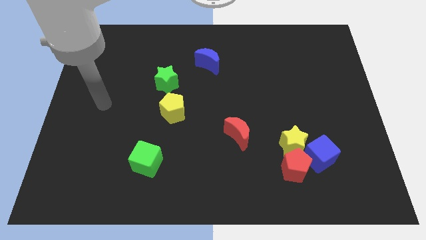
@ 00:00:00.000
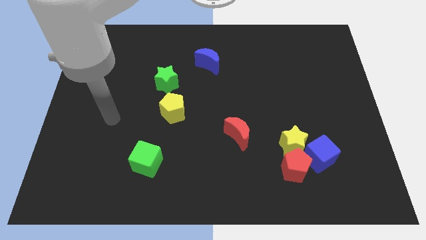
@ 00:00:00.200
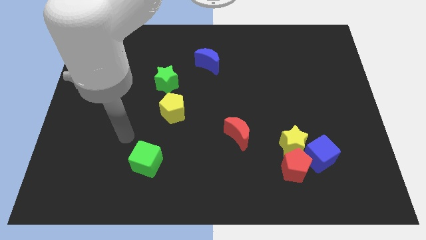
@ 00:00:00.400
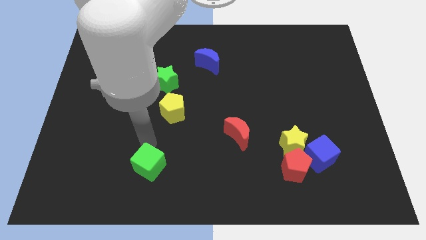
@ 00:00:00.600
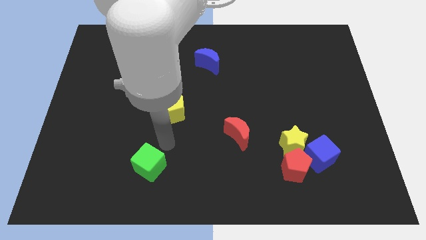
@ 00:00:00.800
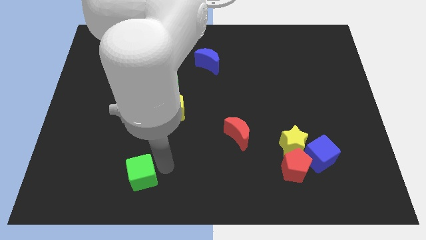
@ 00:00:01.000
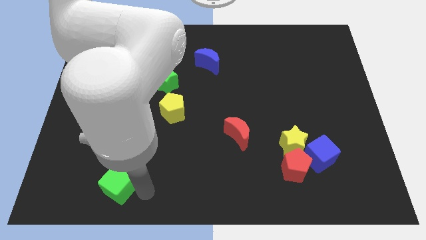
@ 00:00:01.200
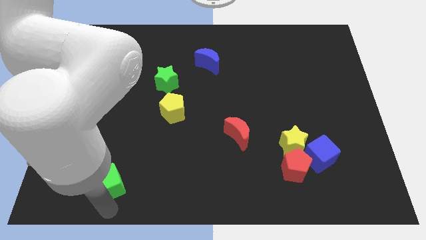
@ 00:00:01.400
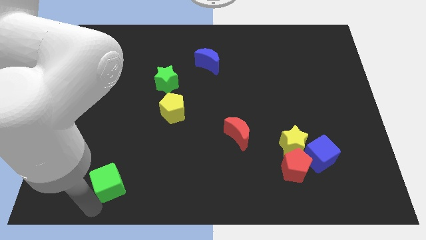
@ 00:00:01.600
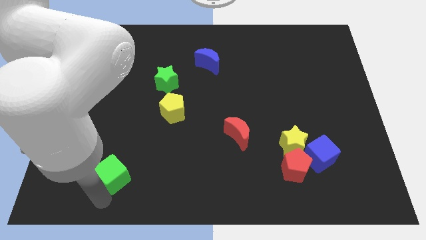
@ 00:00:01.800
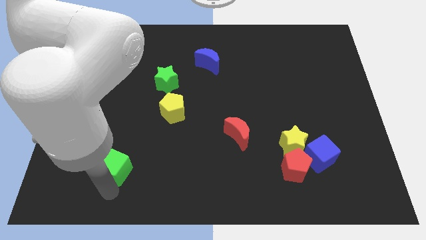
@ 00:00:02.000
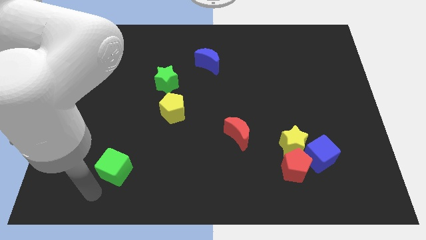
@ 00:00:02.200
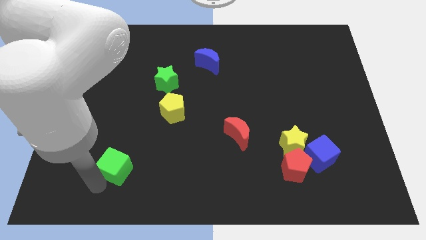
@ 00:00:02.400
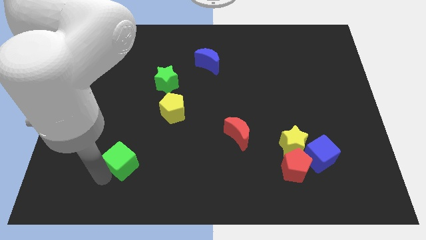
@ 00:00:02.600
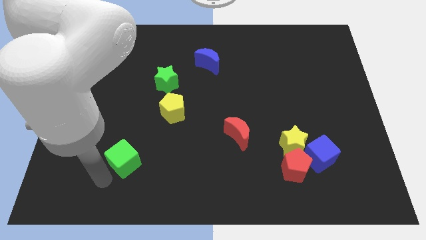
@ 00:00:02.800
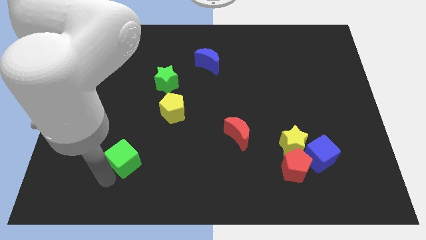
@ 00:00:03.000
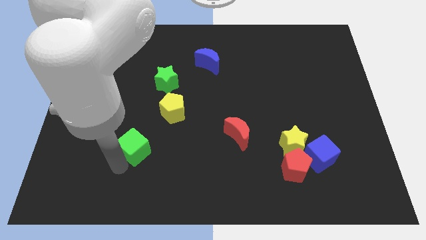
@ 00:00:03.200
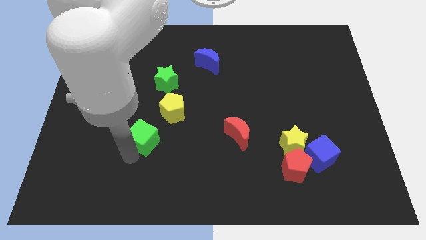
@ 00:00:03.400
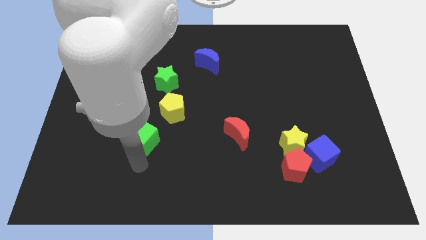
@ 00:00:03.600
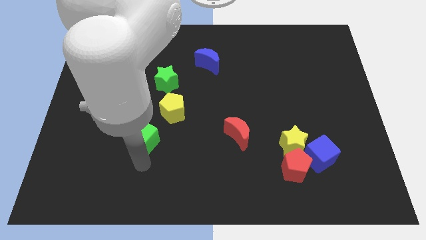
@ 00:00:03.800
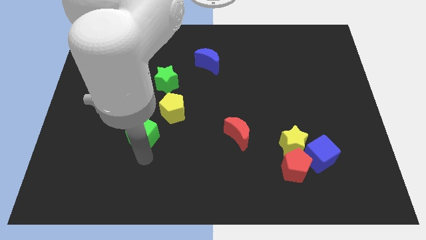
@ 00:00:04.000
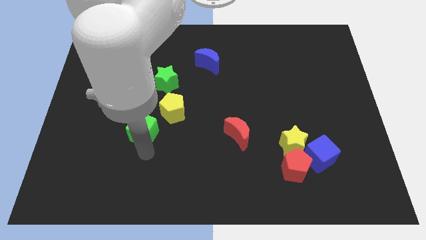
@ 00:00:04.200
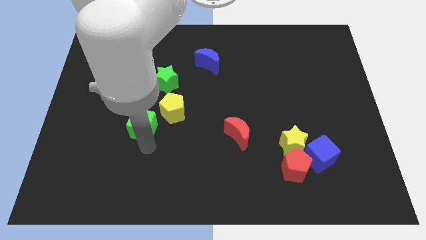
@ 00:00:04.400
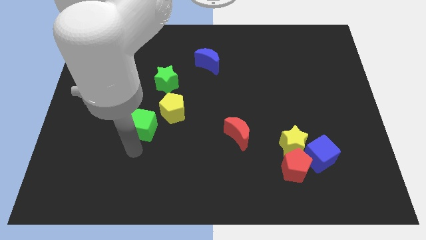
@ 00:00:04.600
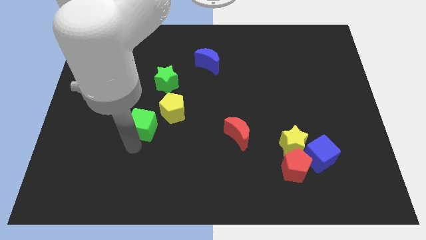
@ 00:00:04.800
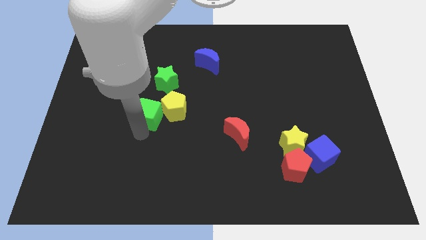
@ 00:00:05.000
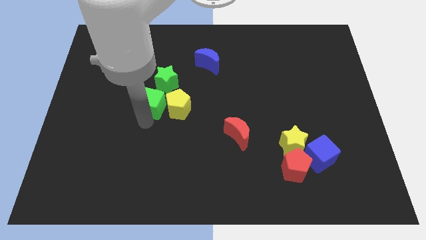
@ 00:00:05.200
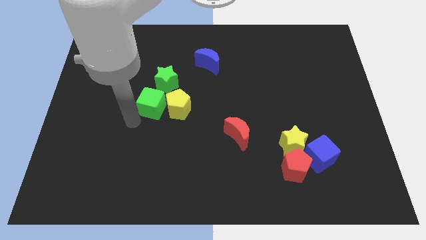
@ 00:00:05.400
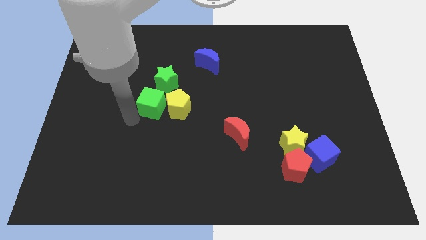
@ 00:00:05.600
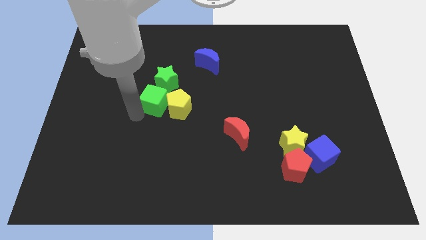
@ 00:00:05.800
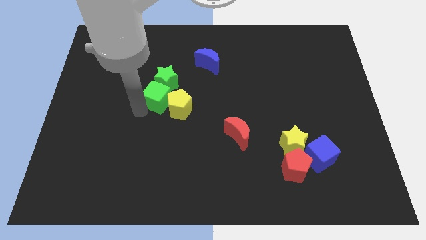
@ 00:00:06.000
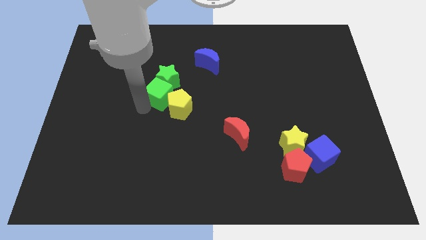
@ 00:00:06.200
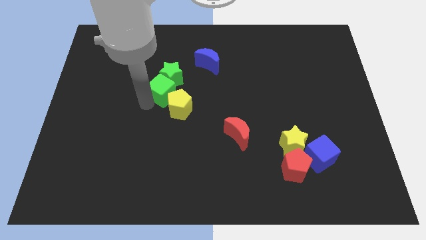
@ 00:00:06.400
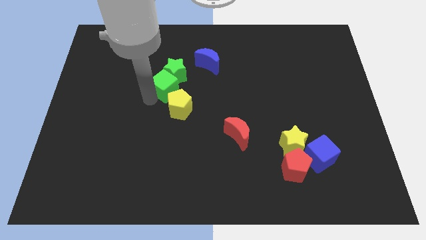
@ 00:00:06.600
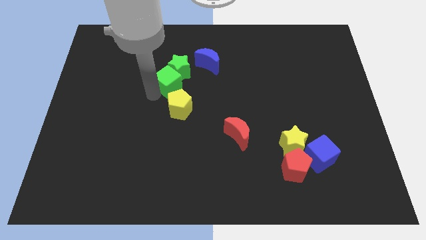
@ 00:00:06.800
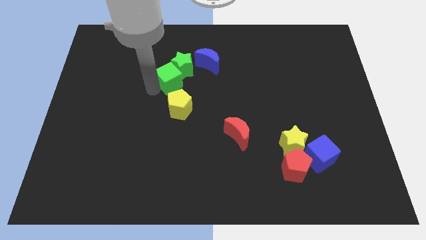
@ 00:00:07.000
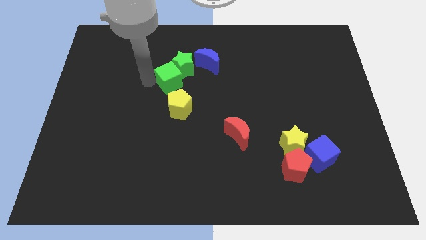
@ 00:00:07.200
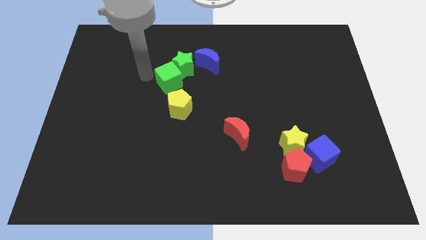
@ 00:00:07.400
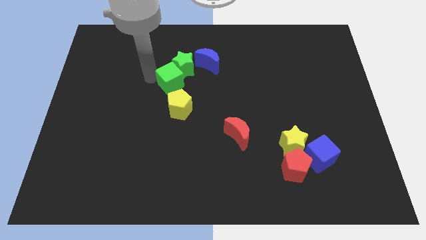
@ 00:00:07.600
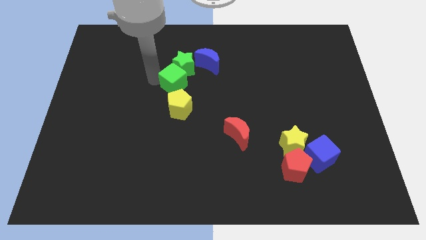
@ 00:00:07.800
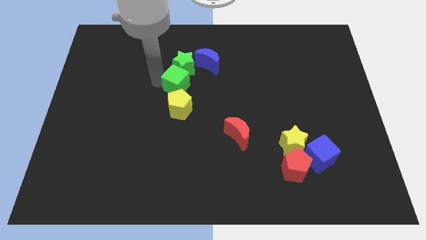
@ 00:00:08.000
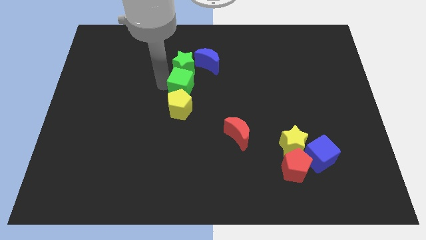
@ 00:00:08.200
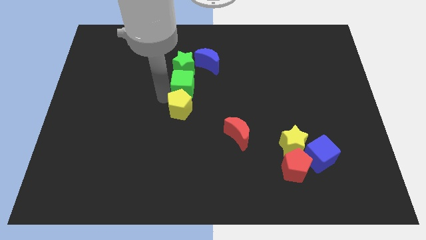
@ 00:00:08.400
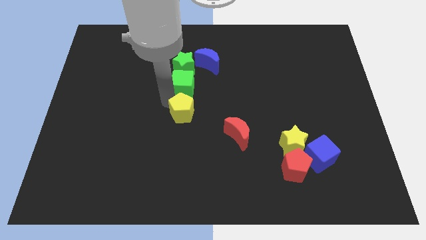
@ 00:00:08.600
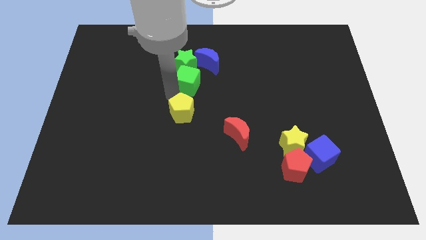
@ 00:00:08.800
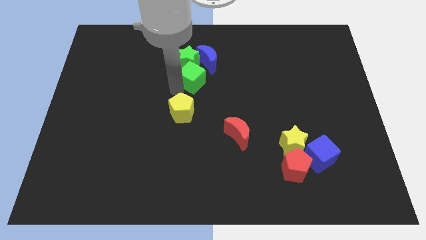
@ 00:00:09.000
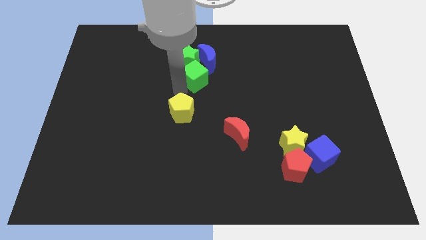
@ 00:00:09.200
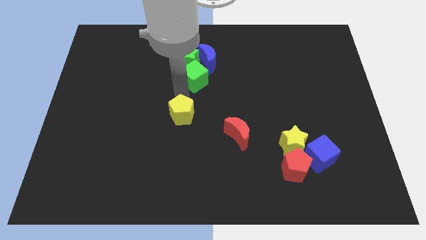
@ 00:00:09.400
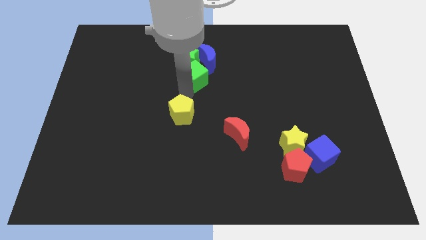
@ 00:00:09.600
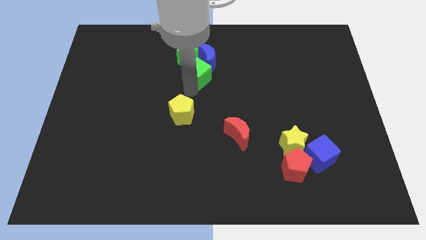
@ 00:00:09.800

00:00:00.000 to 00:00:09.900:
put the green cube close to the blue moon
